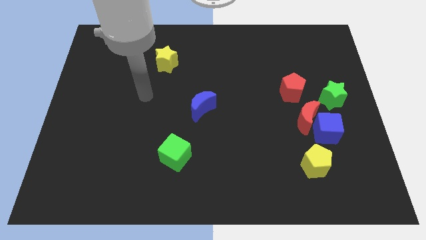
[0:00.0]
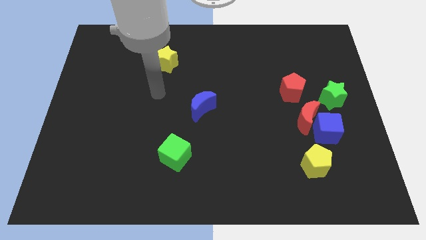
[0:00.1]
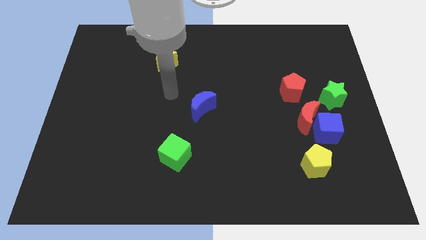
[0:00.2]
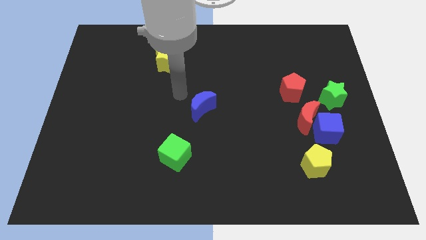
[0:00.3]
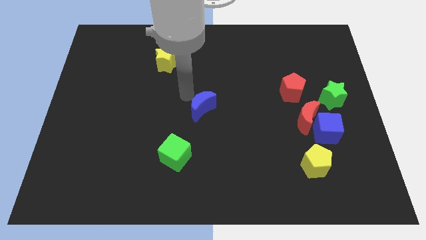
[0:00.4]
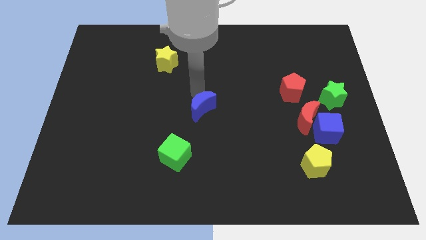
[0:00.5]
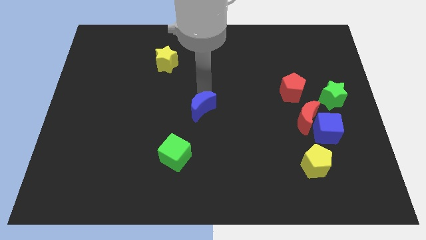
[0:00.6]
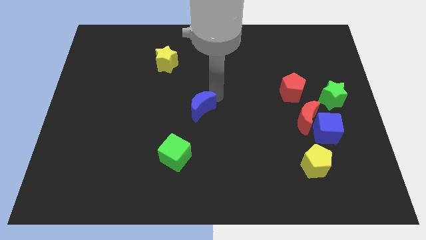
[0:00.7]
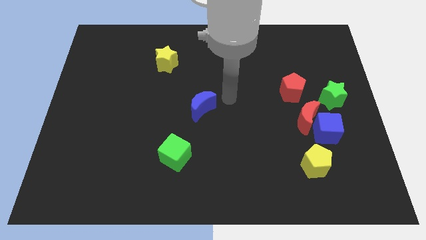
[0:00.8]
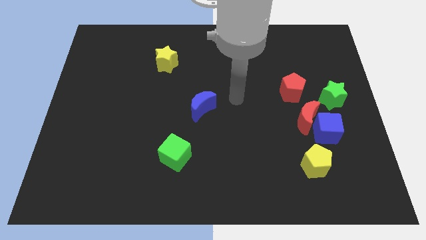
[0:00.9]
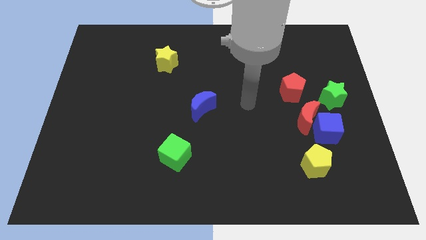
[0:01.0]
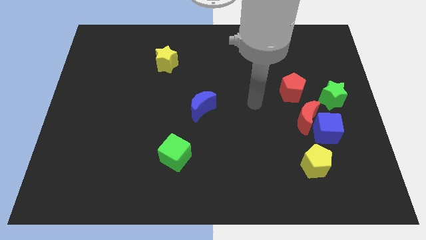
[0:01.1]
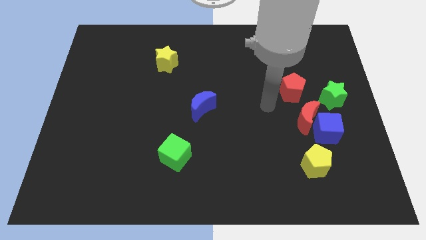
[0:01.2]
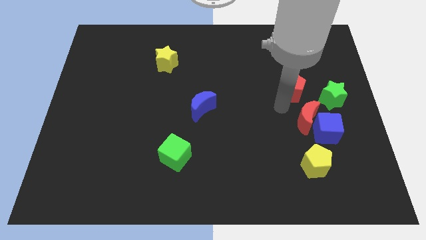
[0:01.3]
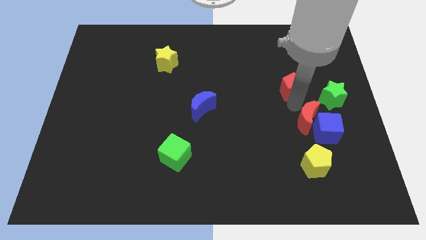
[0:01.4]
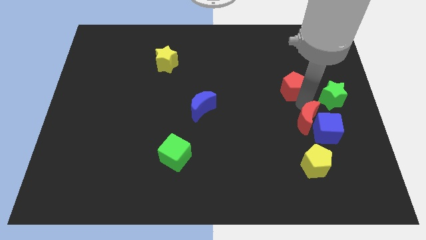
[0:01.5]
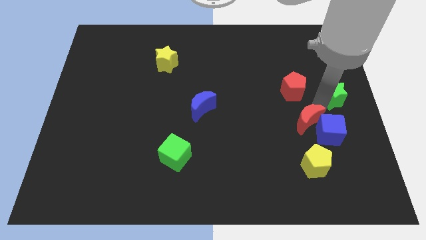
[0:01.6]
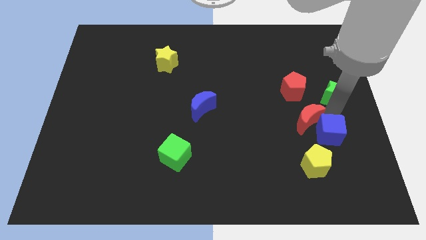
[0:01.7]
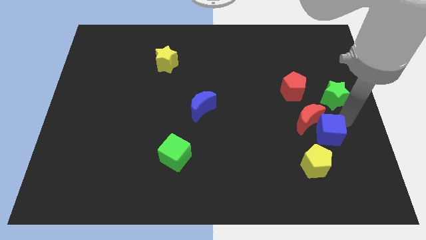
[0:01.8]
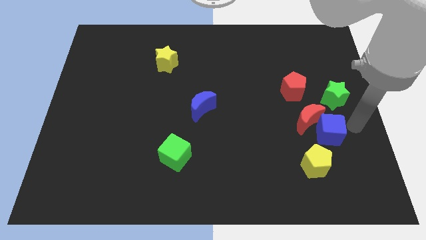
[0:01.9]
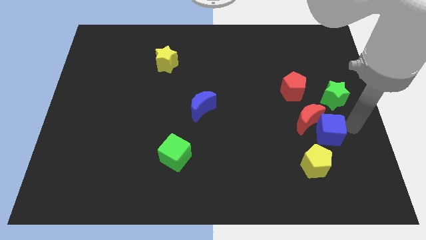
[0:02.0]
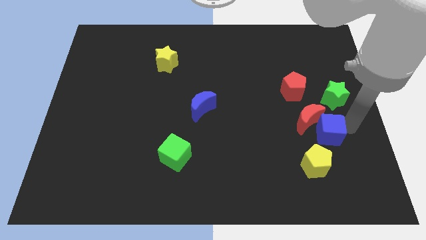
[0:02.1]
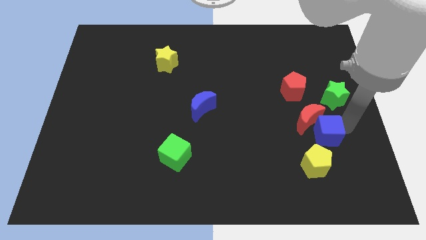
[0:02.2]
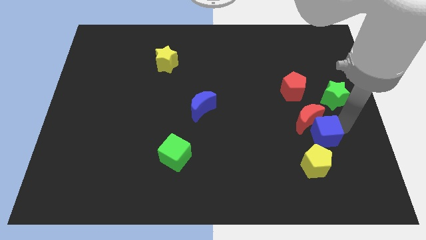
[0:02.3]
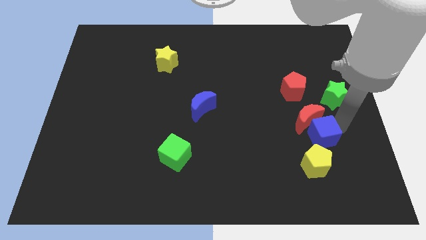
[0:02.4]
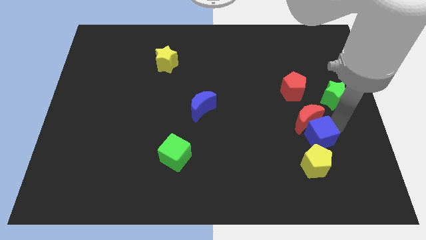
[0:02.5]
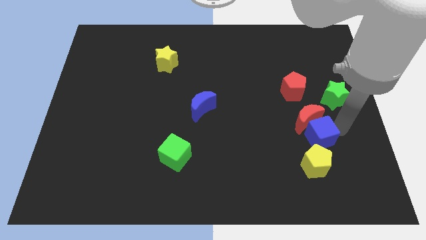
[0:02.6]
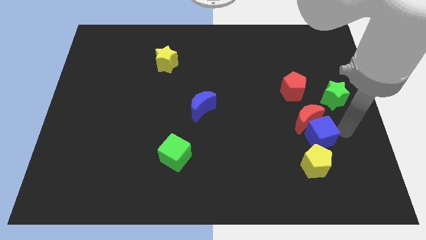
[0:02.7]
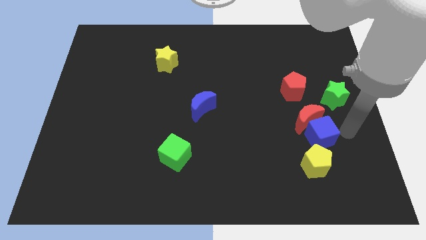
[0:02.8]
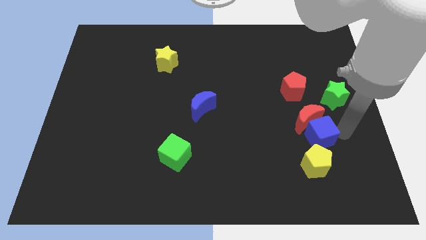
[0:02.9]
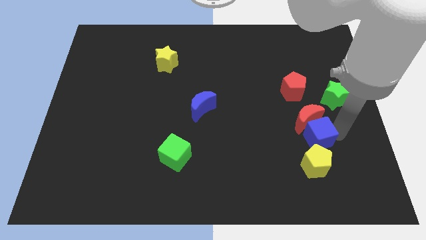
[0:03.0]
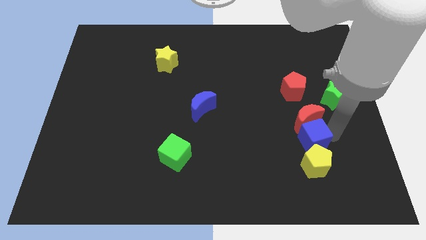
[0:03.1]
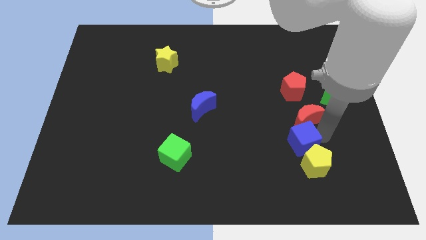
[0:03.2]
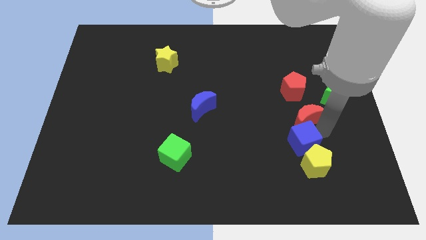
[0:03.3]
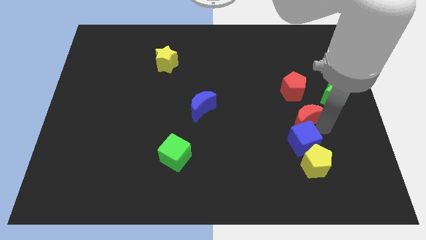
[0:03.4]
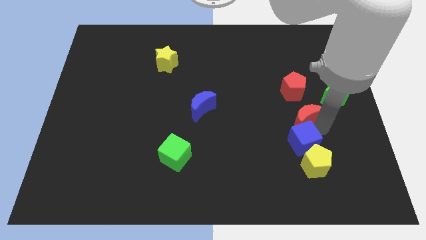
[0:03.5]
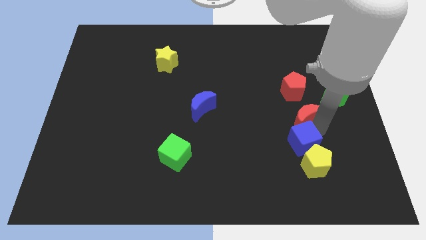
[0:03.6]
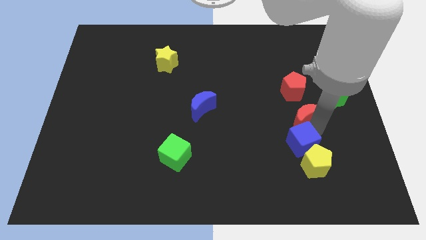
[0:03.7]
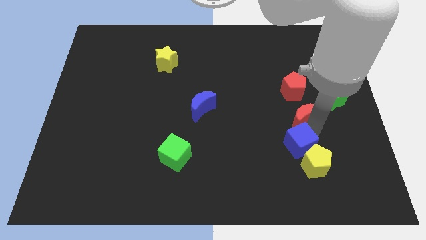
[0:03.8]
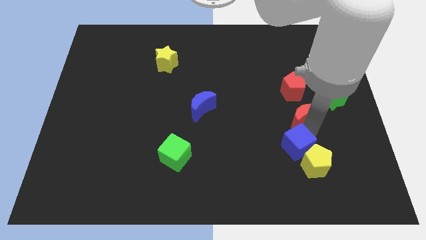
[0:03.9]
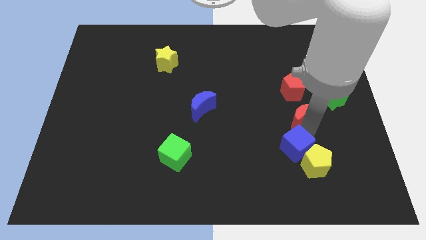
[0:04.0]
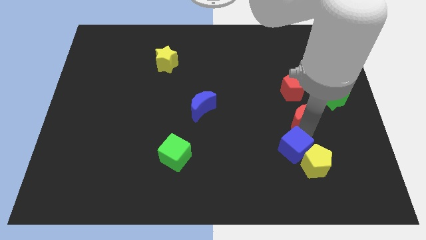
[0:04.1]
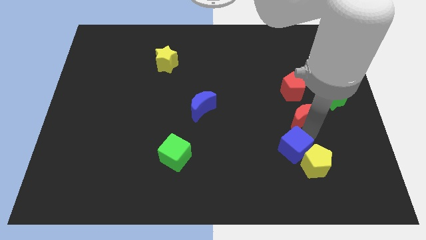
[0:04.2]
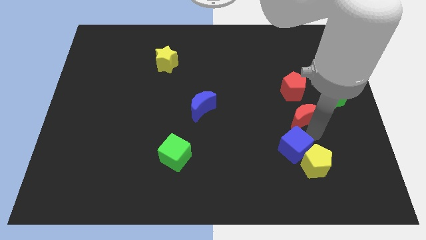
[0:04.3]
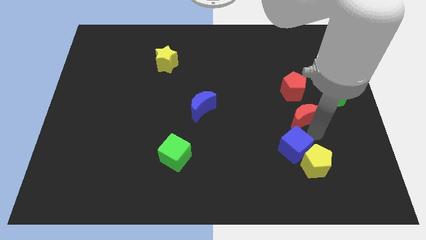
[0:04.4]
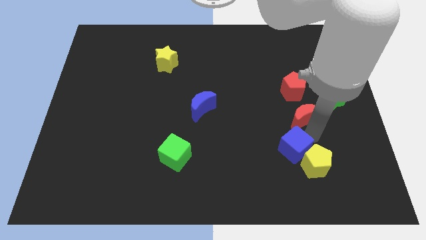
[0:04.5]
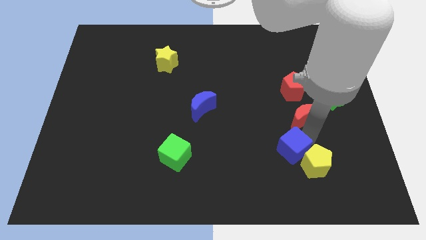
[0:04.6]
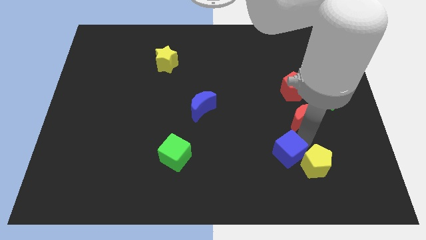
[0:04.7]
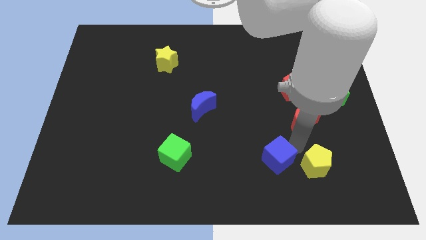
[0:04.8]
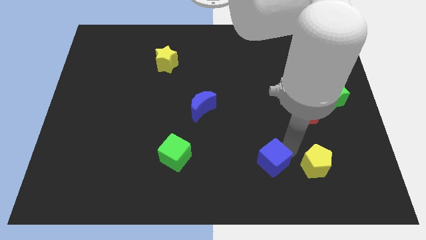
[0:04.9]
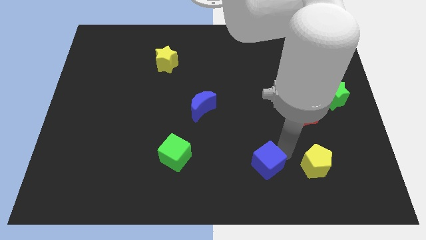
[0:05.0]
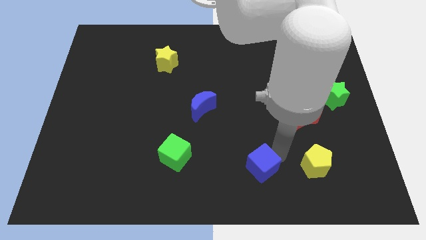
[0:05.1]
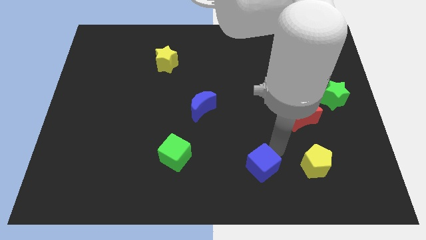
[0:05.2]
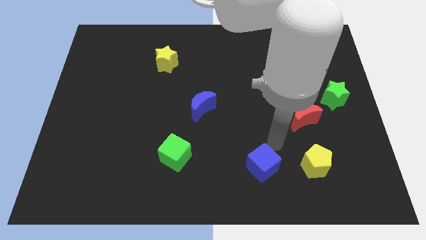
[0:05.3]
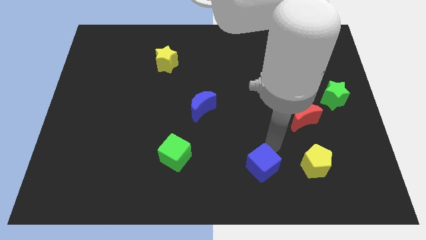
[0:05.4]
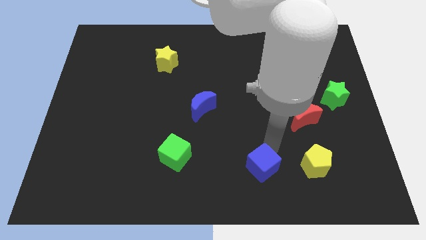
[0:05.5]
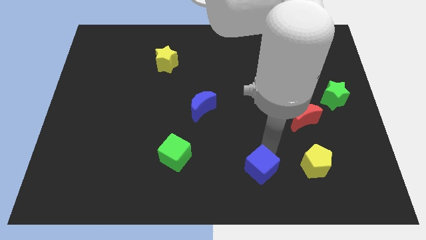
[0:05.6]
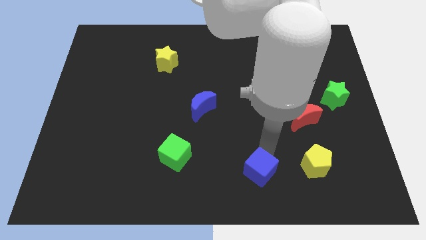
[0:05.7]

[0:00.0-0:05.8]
push the blue cube to the bottom

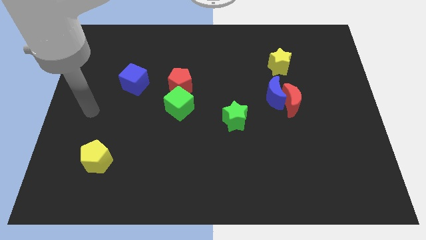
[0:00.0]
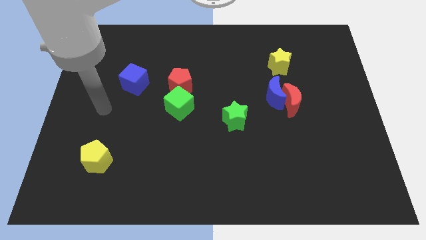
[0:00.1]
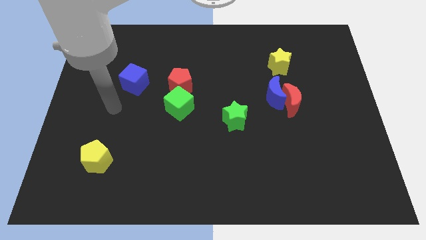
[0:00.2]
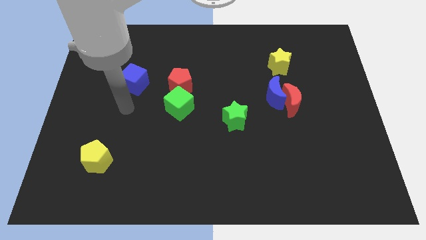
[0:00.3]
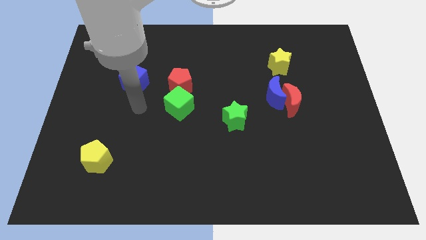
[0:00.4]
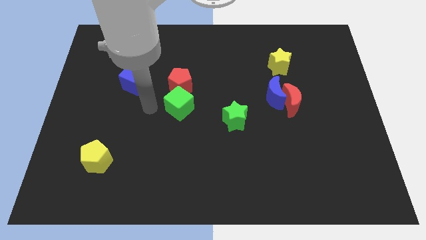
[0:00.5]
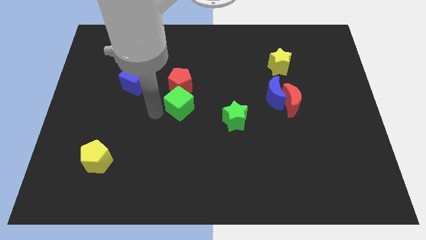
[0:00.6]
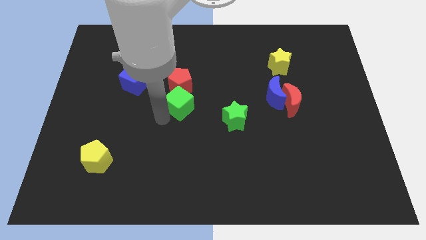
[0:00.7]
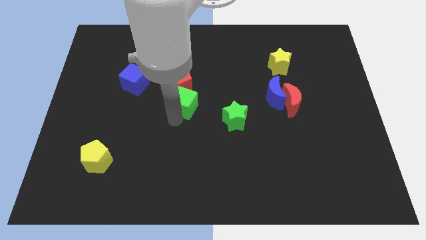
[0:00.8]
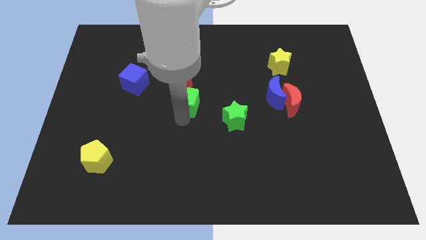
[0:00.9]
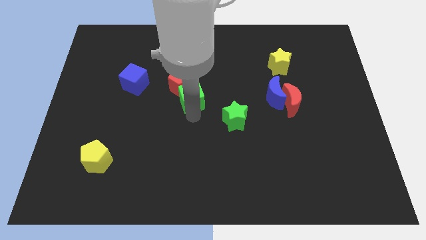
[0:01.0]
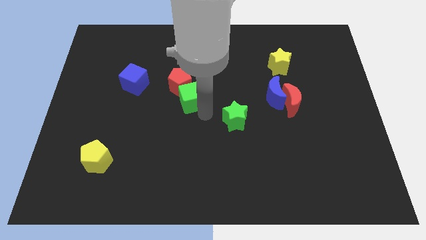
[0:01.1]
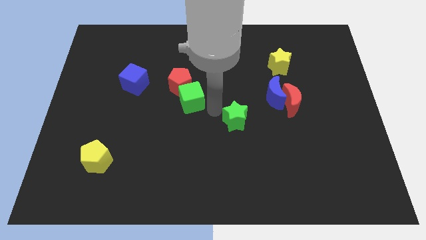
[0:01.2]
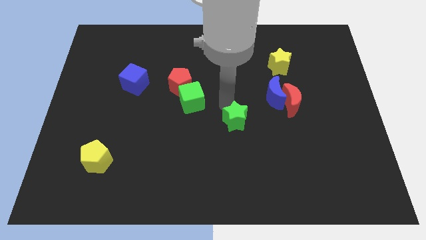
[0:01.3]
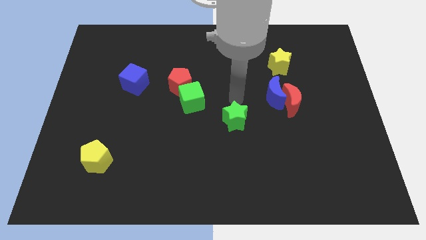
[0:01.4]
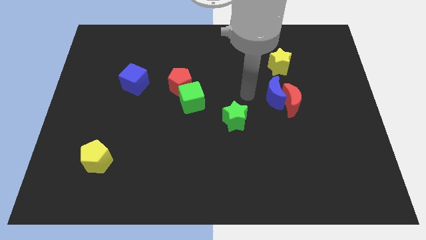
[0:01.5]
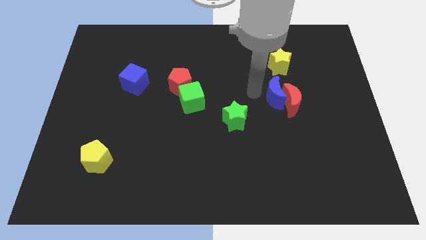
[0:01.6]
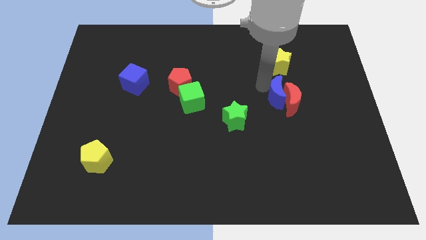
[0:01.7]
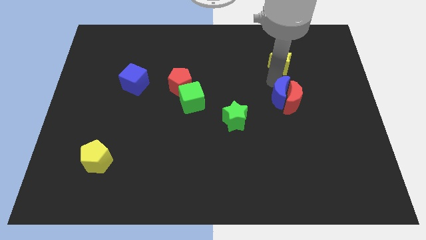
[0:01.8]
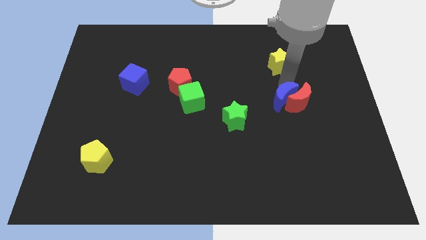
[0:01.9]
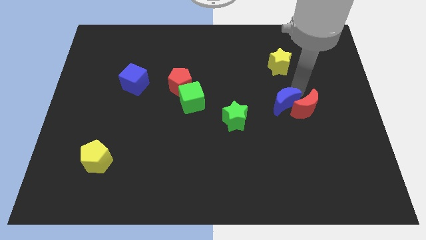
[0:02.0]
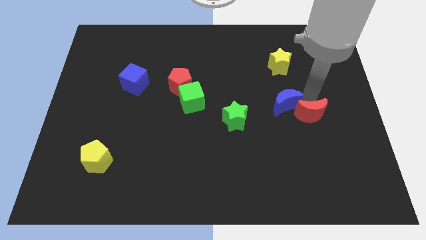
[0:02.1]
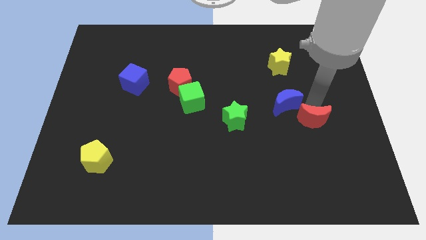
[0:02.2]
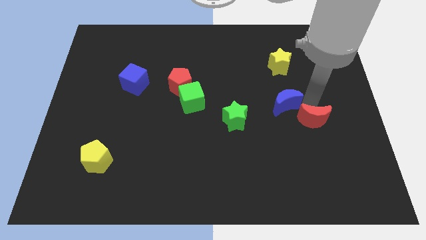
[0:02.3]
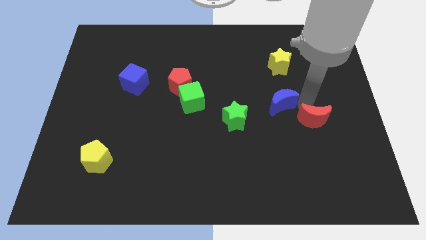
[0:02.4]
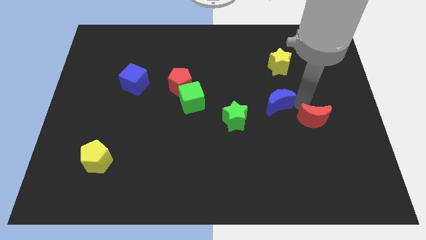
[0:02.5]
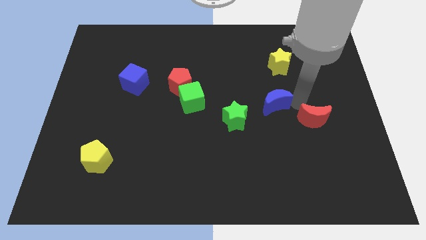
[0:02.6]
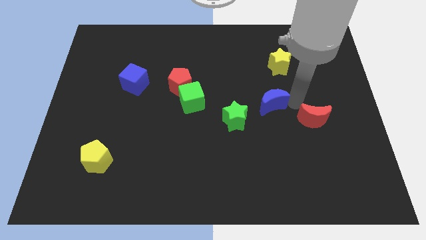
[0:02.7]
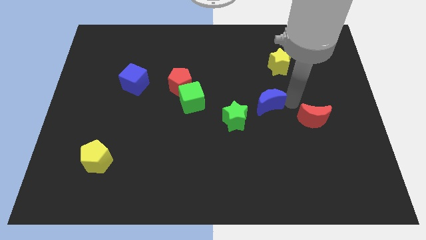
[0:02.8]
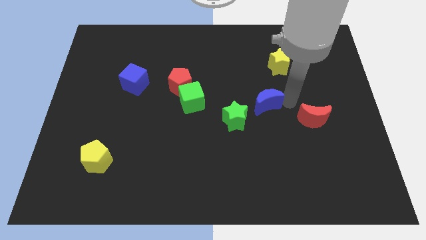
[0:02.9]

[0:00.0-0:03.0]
move the blue moon to the center
